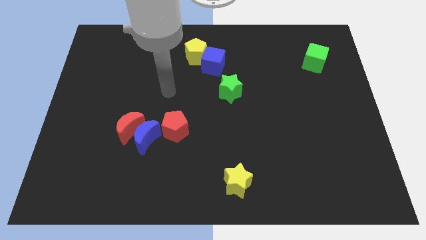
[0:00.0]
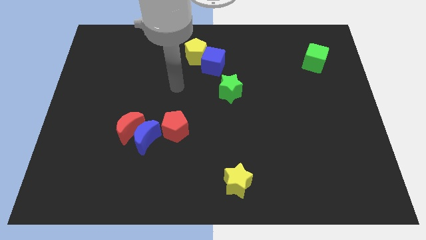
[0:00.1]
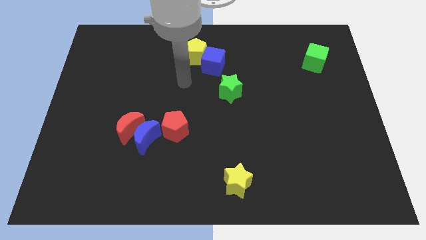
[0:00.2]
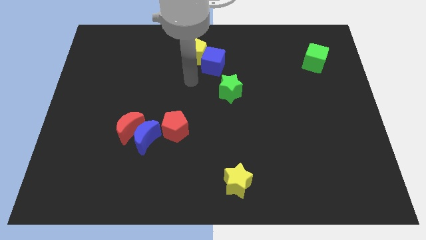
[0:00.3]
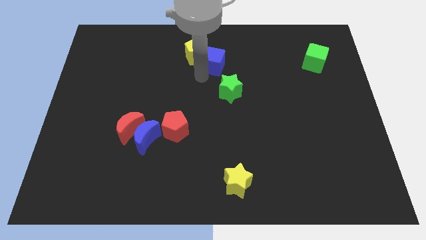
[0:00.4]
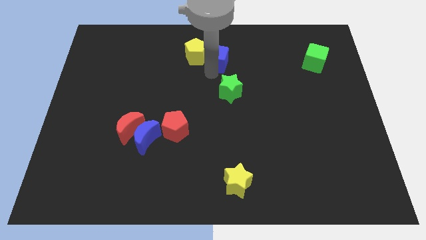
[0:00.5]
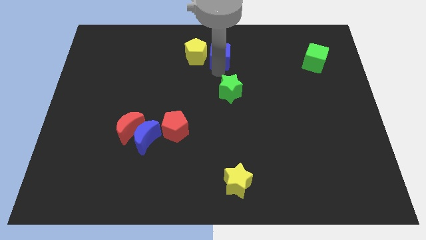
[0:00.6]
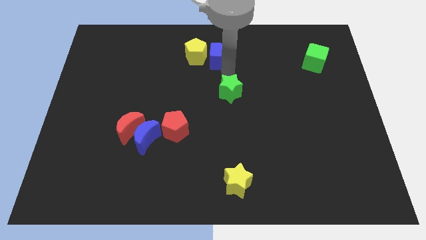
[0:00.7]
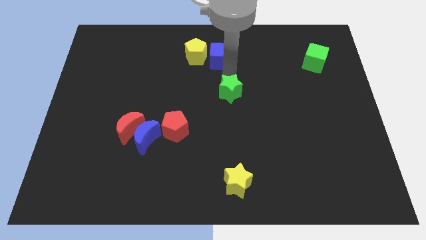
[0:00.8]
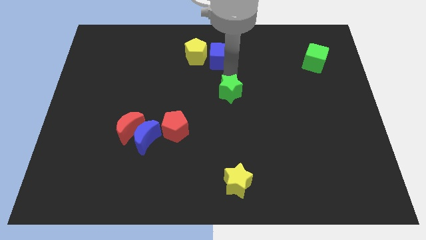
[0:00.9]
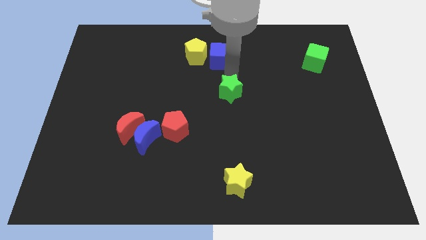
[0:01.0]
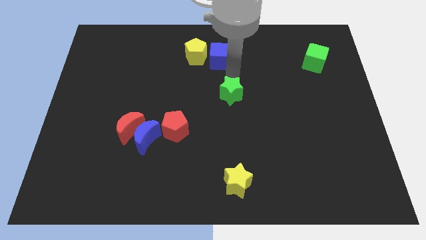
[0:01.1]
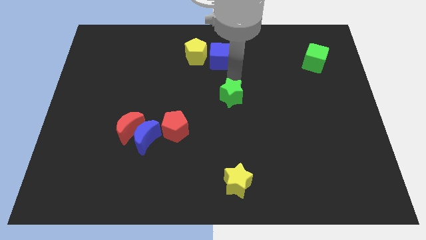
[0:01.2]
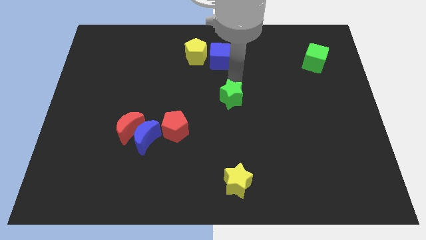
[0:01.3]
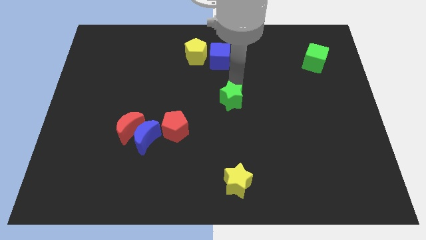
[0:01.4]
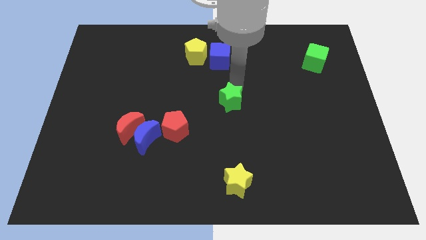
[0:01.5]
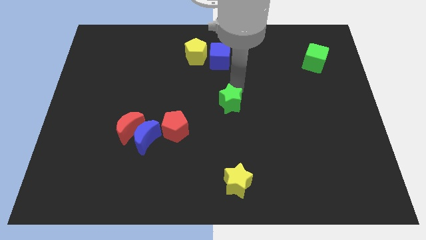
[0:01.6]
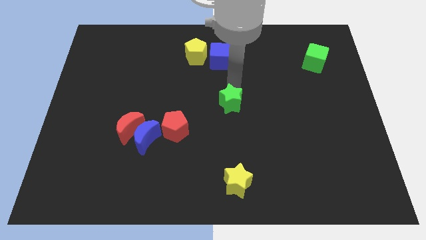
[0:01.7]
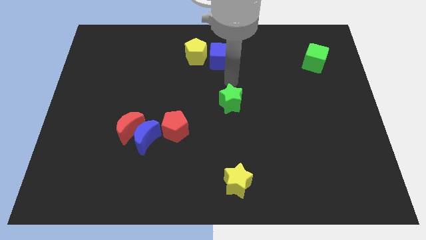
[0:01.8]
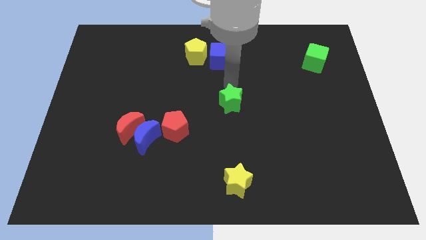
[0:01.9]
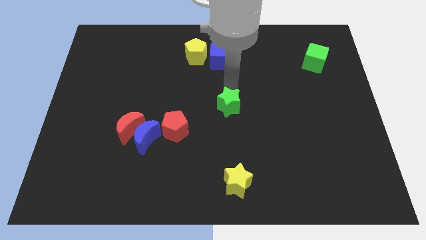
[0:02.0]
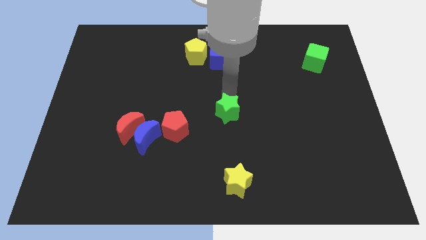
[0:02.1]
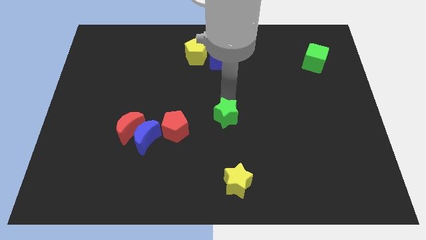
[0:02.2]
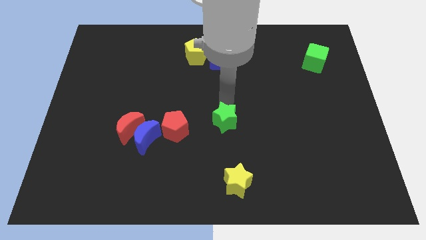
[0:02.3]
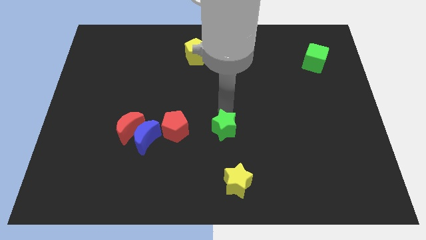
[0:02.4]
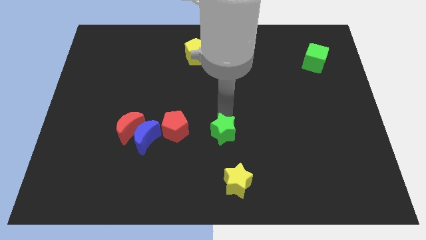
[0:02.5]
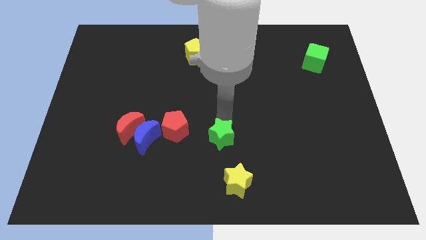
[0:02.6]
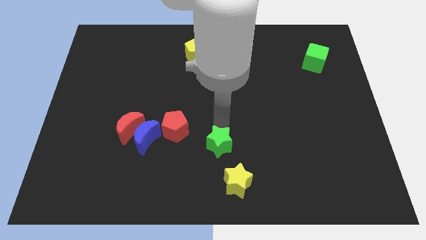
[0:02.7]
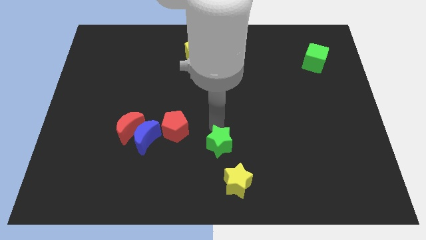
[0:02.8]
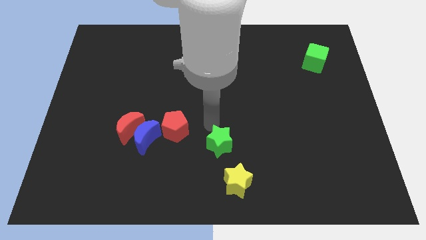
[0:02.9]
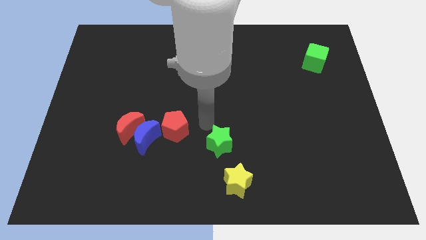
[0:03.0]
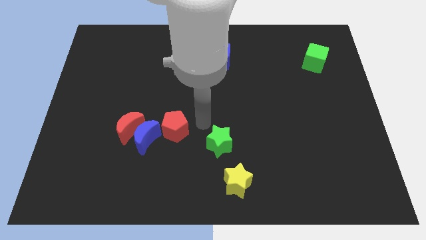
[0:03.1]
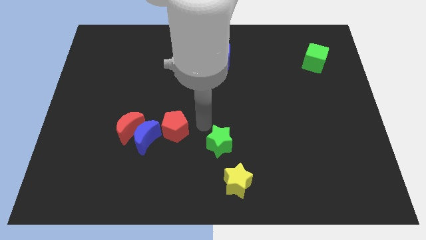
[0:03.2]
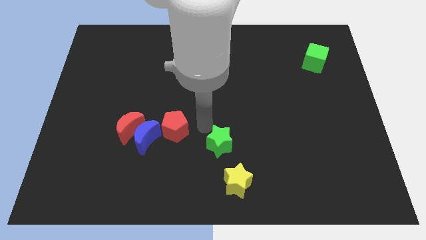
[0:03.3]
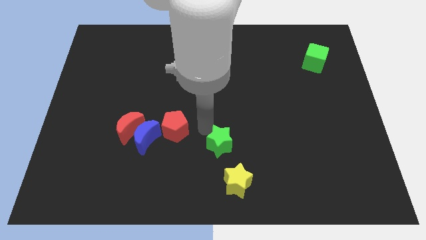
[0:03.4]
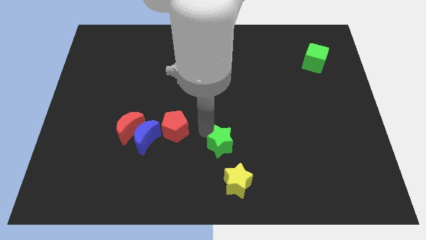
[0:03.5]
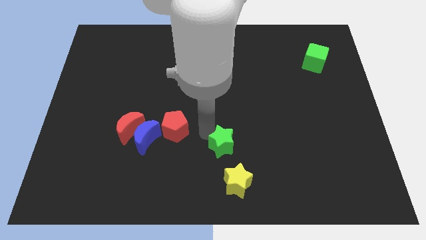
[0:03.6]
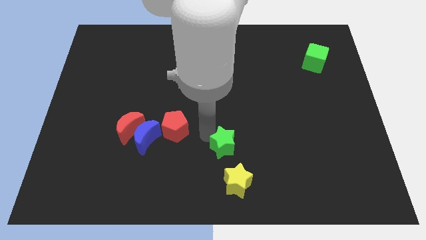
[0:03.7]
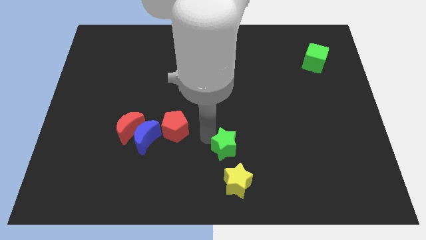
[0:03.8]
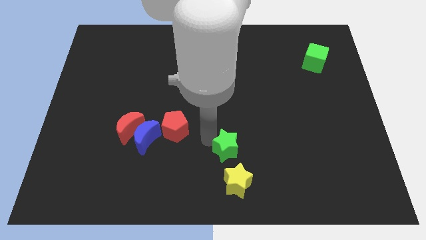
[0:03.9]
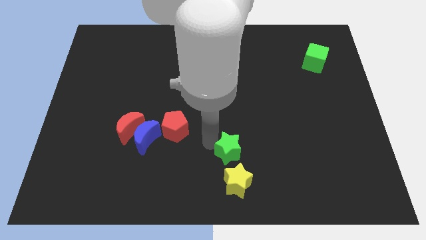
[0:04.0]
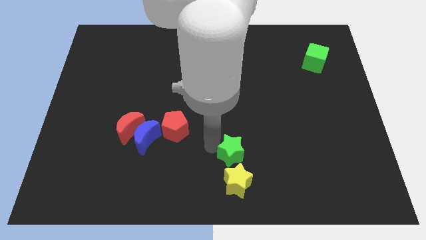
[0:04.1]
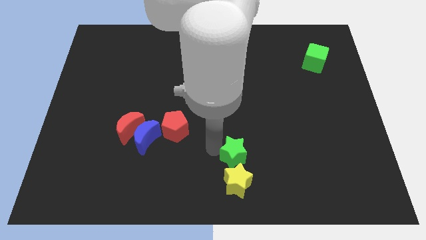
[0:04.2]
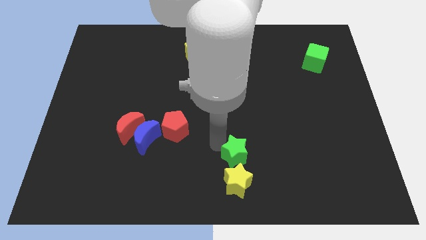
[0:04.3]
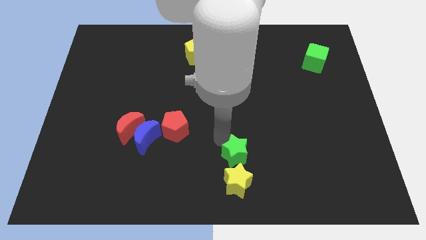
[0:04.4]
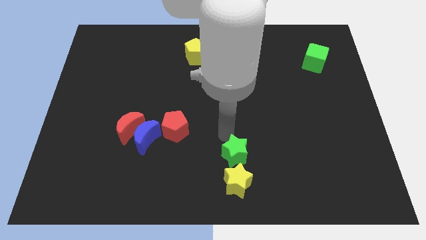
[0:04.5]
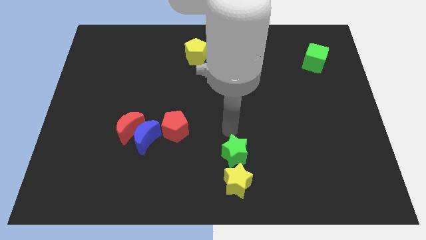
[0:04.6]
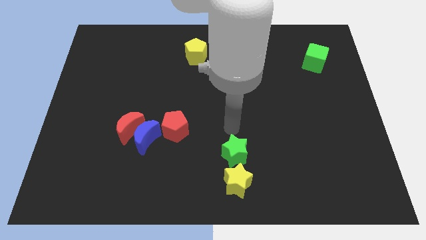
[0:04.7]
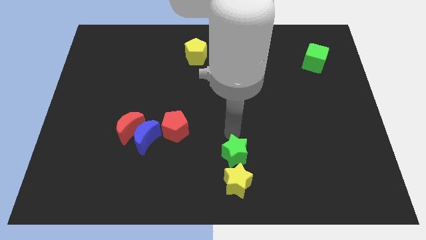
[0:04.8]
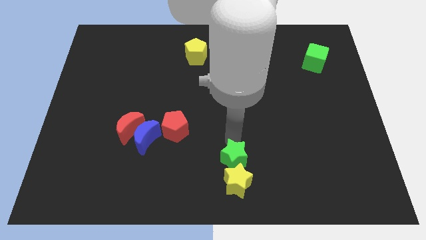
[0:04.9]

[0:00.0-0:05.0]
push the green star towards the yellow star

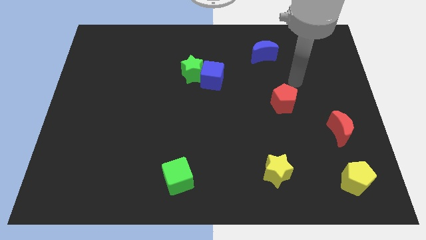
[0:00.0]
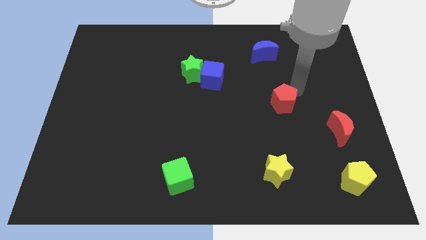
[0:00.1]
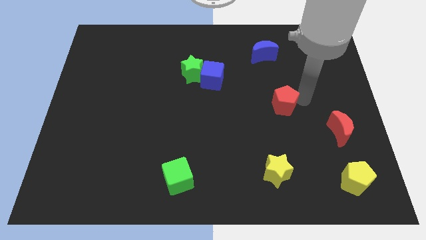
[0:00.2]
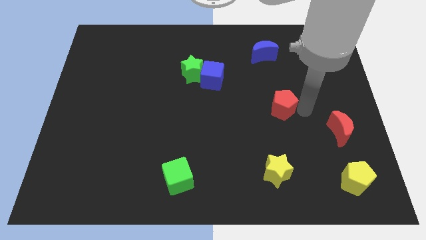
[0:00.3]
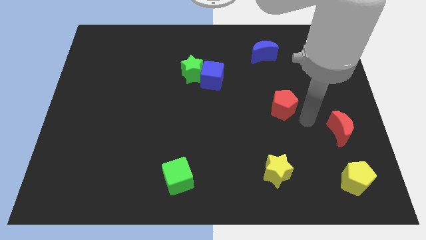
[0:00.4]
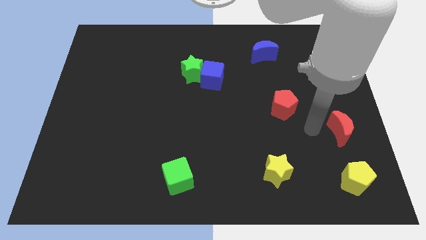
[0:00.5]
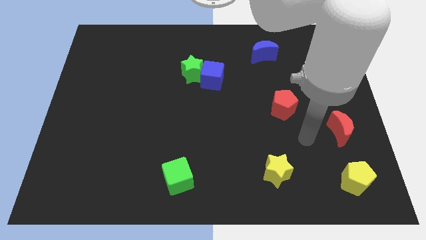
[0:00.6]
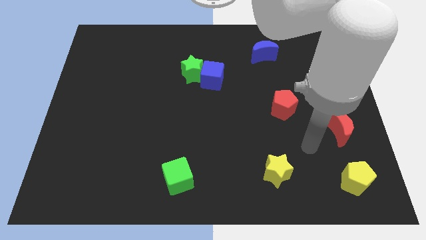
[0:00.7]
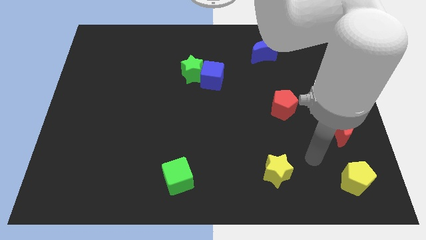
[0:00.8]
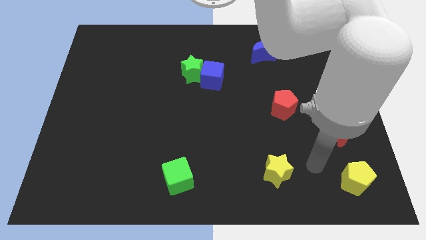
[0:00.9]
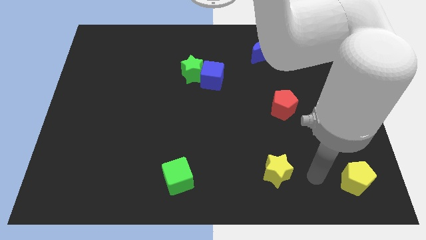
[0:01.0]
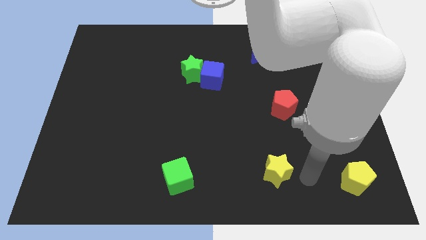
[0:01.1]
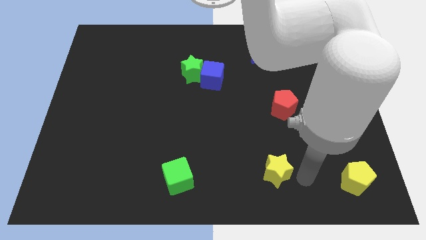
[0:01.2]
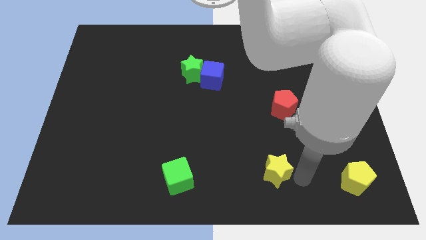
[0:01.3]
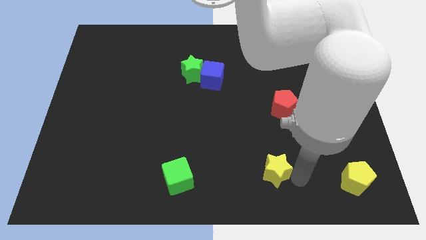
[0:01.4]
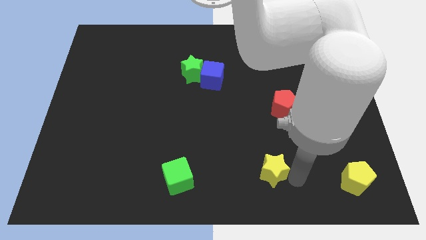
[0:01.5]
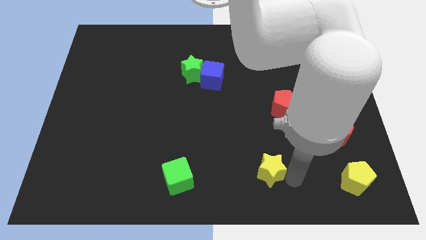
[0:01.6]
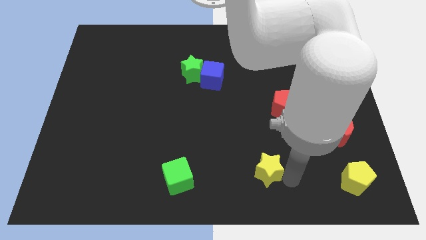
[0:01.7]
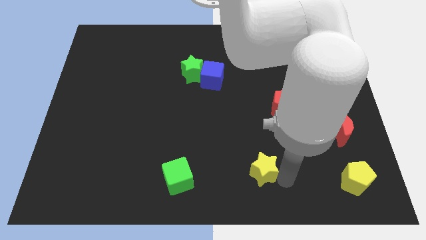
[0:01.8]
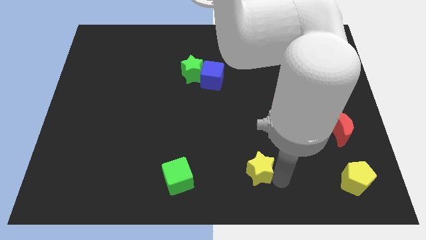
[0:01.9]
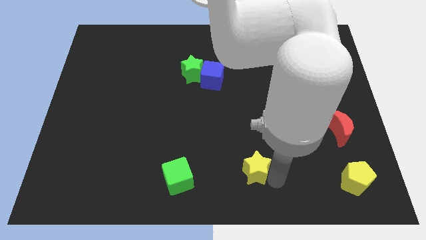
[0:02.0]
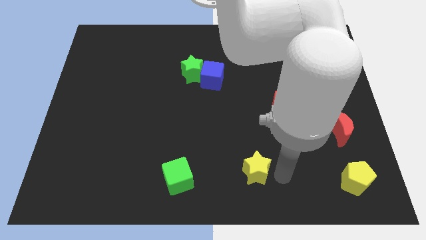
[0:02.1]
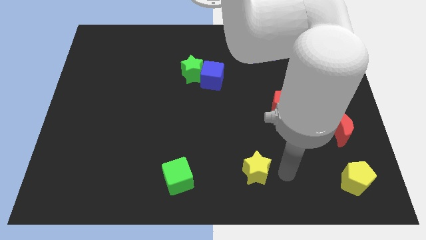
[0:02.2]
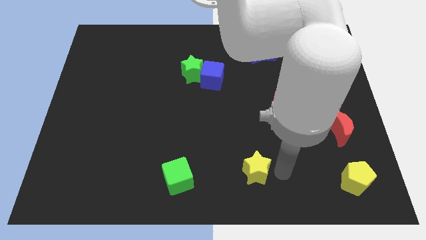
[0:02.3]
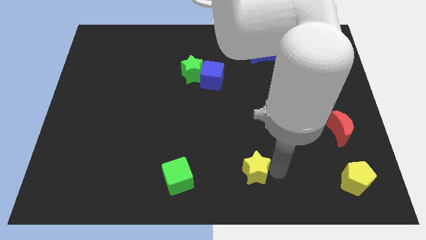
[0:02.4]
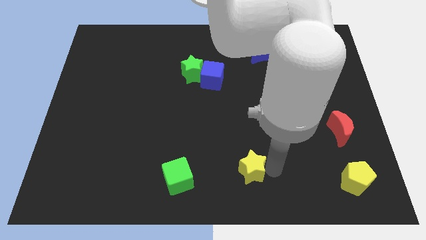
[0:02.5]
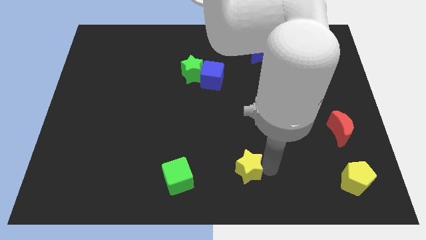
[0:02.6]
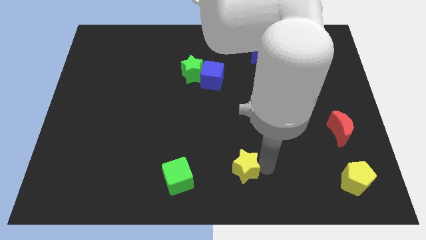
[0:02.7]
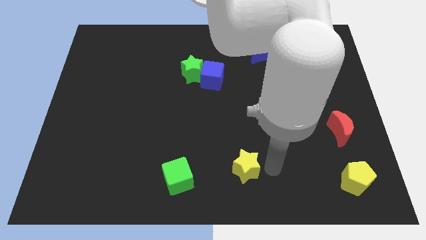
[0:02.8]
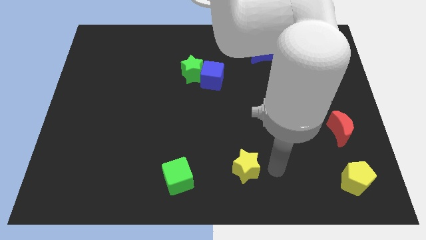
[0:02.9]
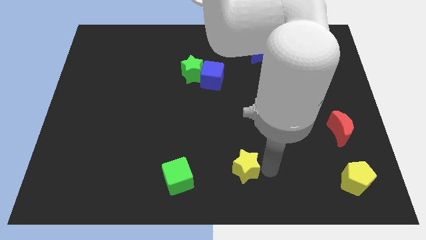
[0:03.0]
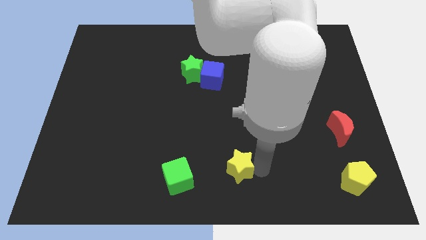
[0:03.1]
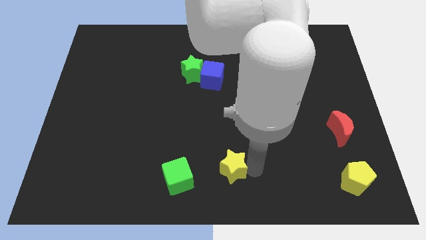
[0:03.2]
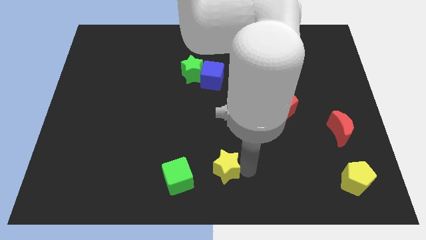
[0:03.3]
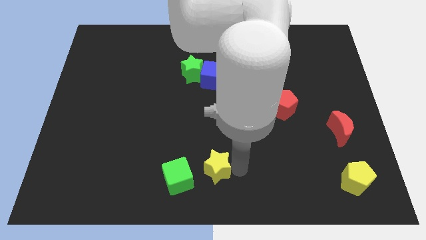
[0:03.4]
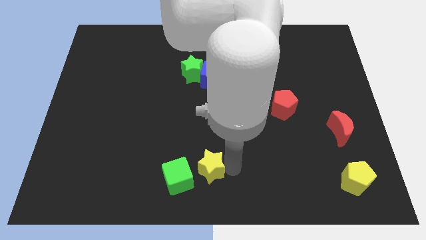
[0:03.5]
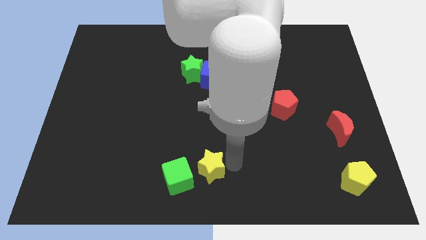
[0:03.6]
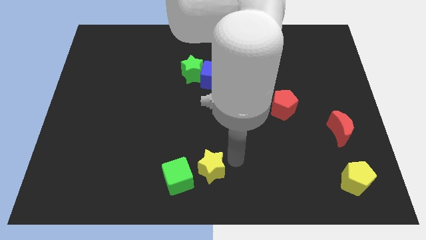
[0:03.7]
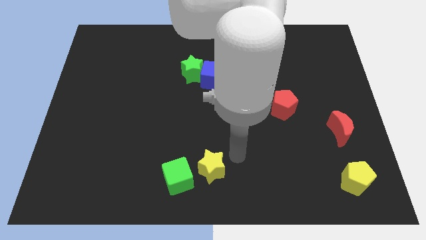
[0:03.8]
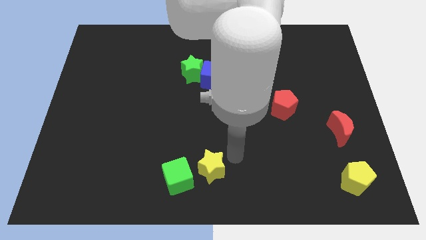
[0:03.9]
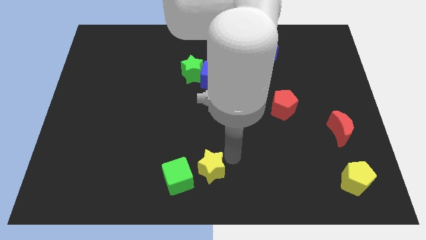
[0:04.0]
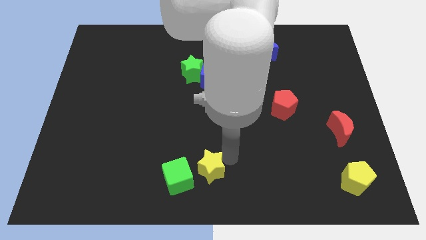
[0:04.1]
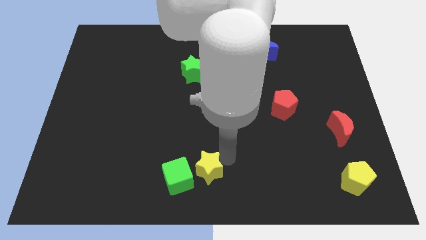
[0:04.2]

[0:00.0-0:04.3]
move the yellow star to the green cube
